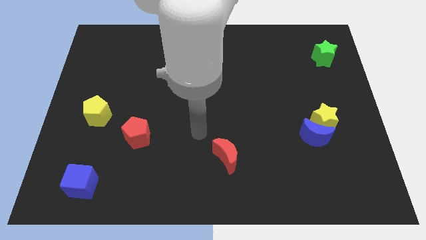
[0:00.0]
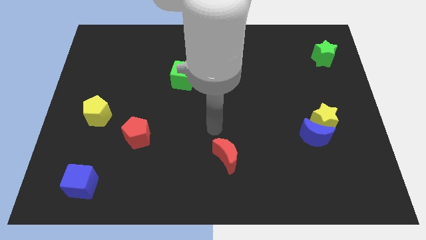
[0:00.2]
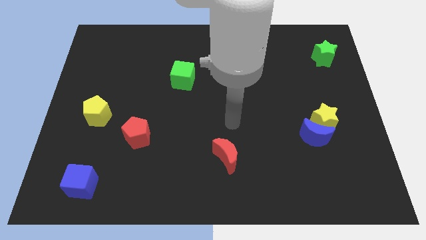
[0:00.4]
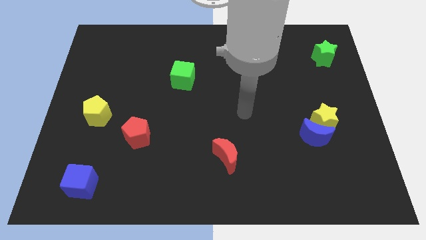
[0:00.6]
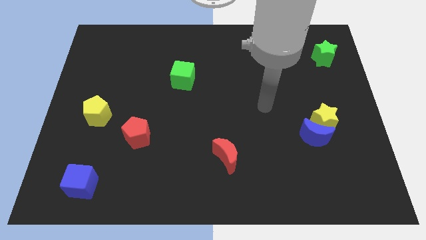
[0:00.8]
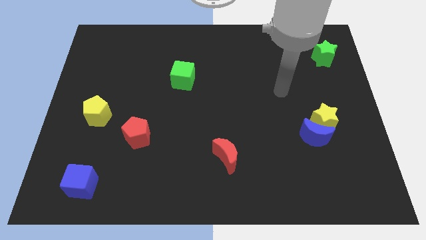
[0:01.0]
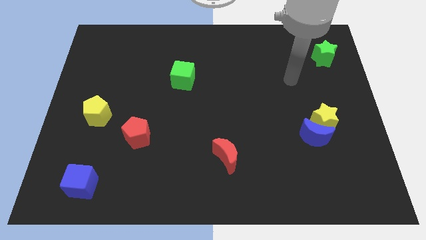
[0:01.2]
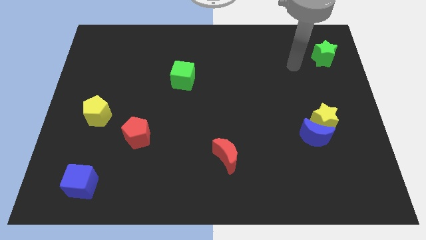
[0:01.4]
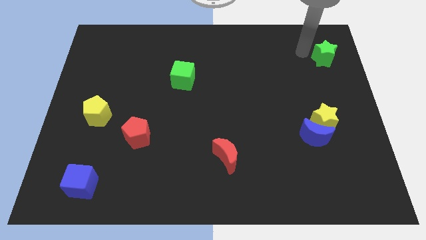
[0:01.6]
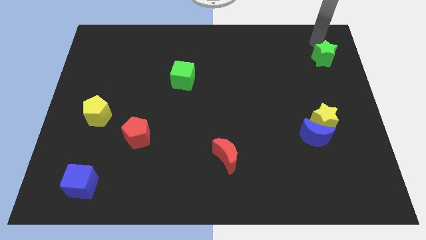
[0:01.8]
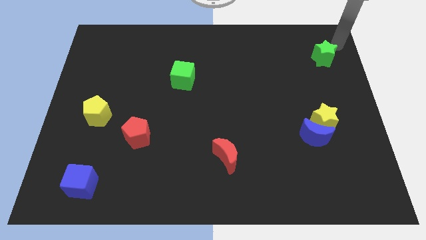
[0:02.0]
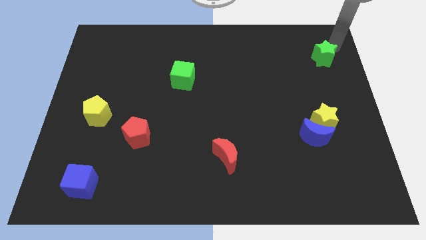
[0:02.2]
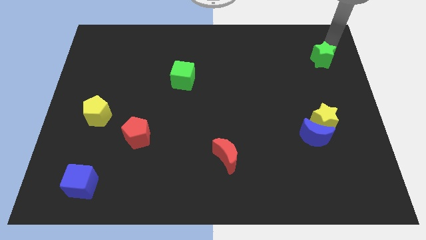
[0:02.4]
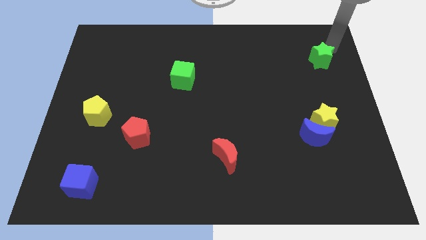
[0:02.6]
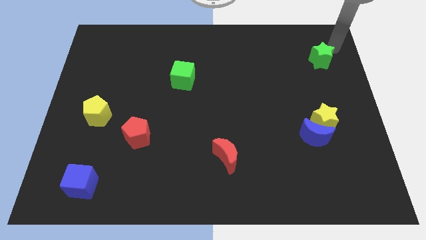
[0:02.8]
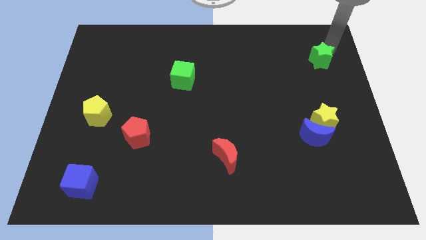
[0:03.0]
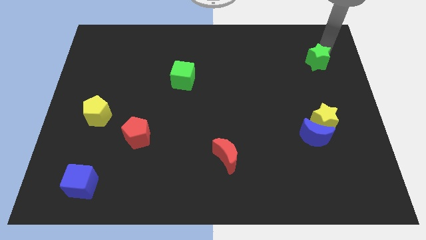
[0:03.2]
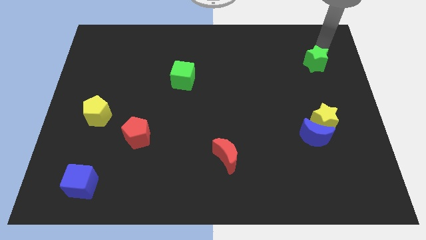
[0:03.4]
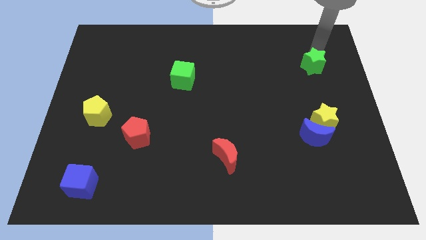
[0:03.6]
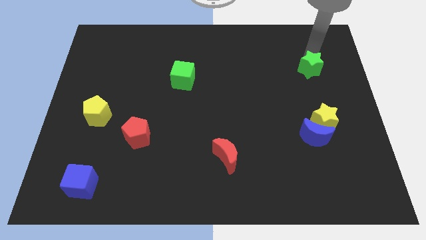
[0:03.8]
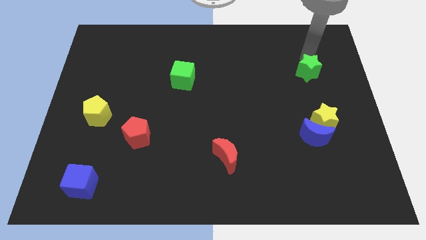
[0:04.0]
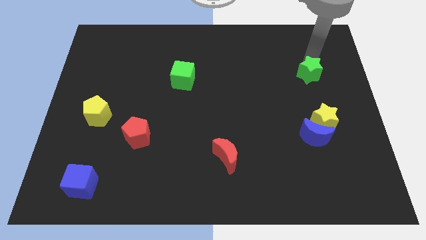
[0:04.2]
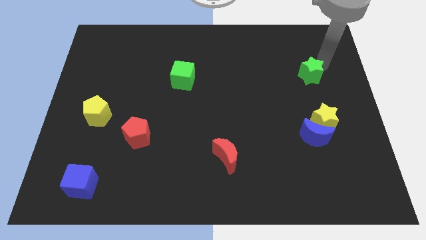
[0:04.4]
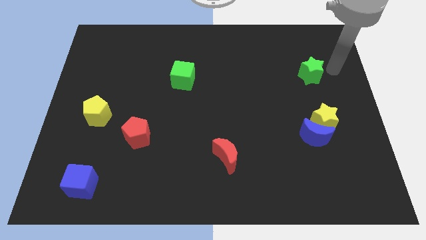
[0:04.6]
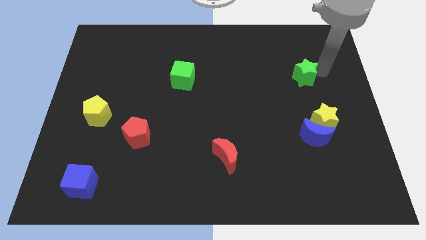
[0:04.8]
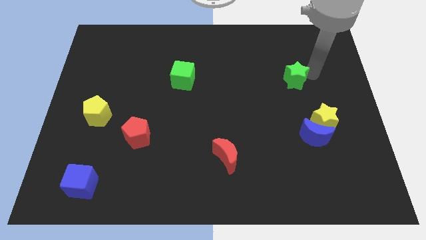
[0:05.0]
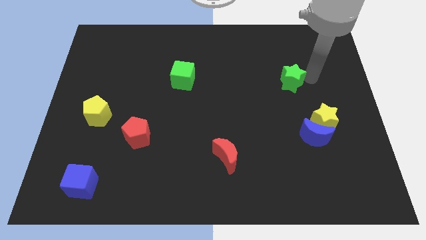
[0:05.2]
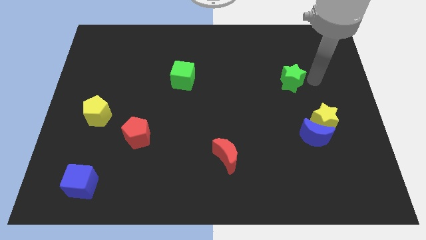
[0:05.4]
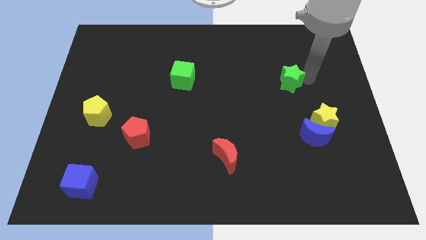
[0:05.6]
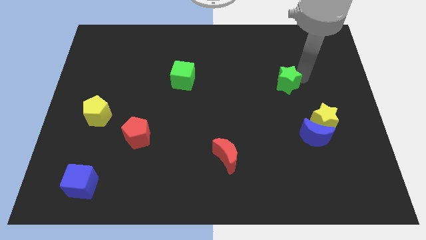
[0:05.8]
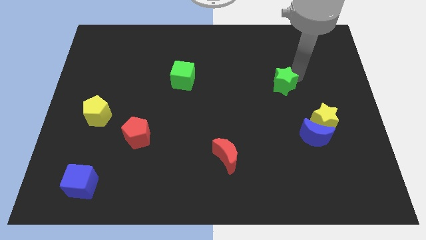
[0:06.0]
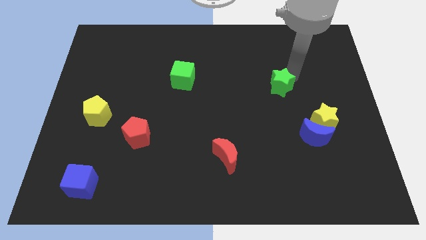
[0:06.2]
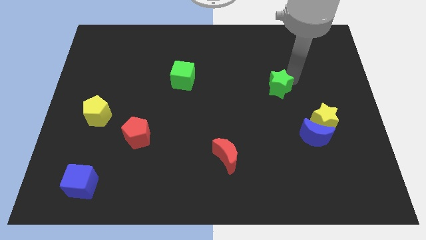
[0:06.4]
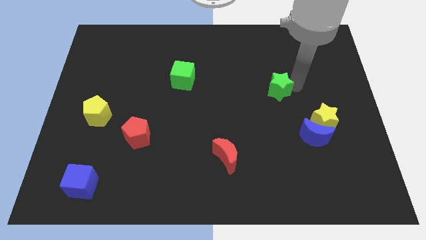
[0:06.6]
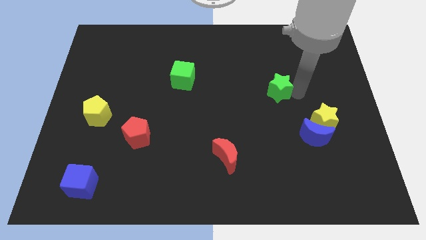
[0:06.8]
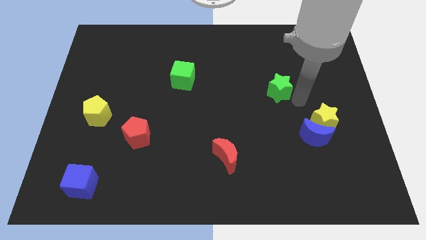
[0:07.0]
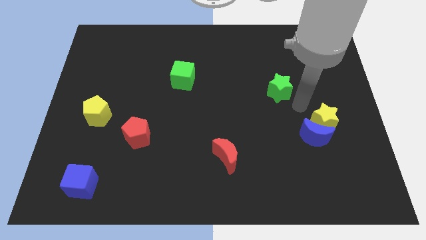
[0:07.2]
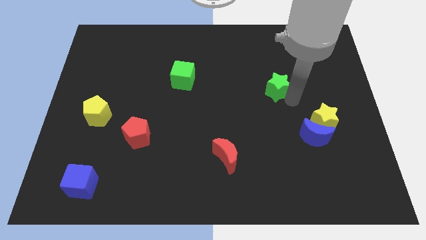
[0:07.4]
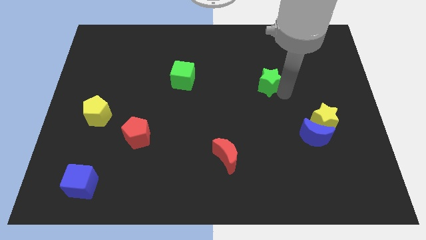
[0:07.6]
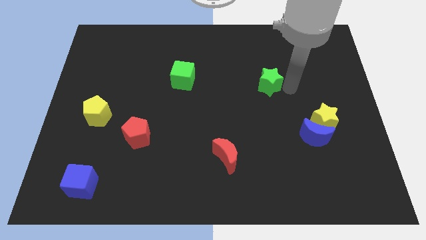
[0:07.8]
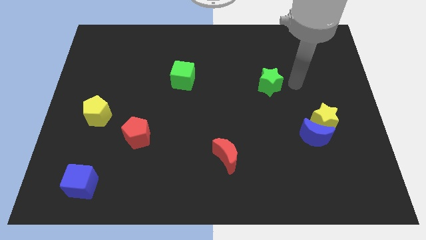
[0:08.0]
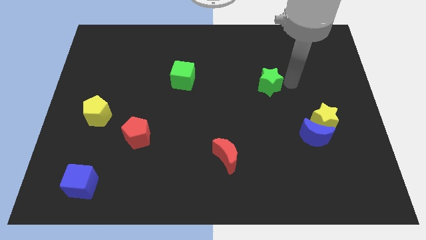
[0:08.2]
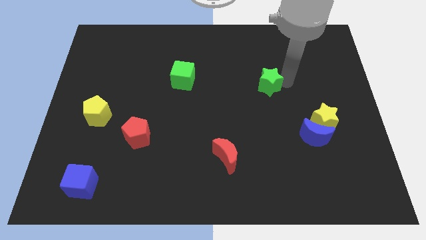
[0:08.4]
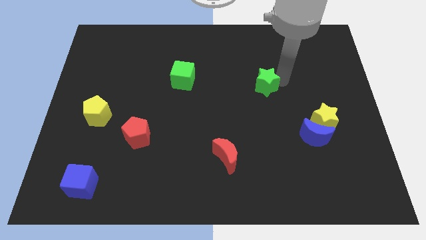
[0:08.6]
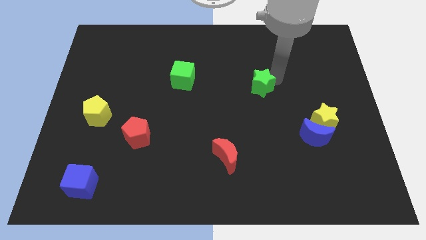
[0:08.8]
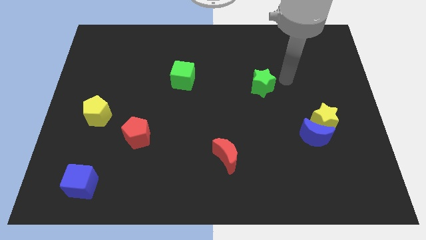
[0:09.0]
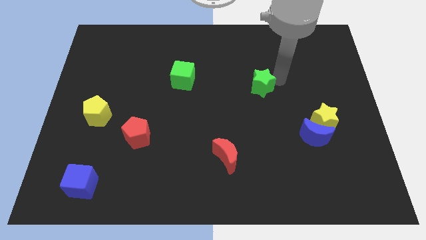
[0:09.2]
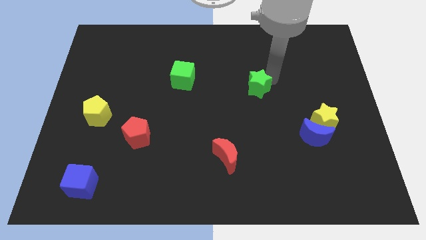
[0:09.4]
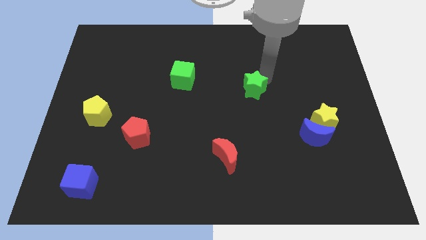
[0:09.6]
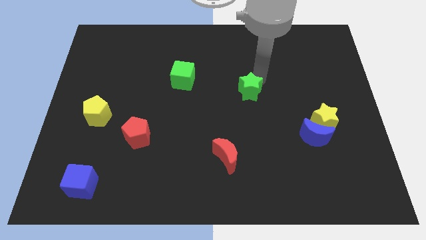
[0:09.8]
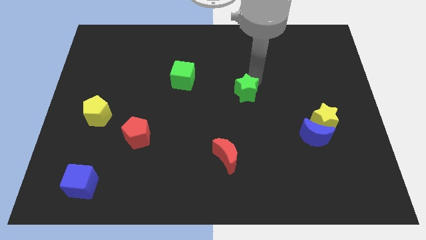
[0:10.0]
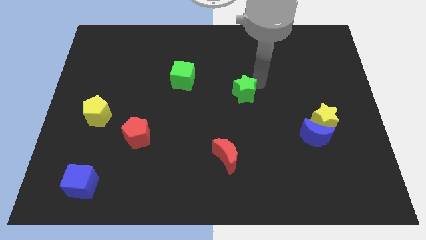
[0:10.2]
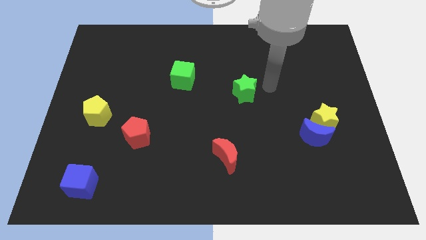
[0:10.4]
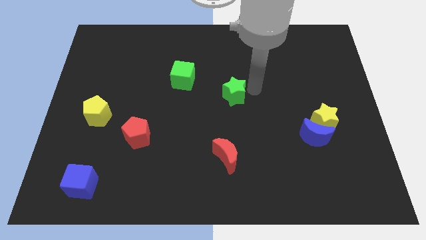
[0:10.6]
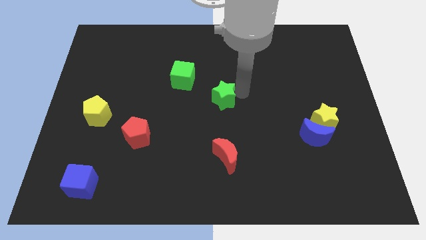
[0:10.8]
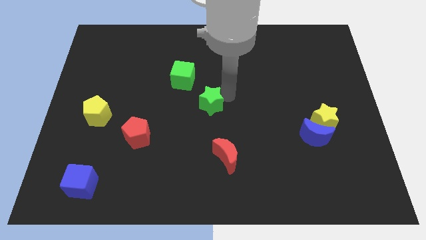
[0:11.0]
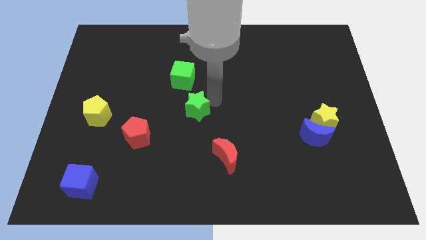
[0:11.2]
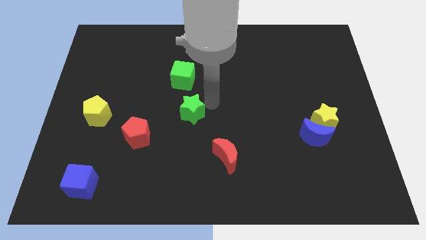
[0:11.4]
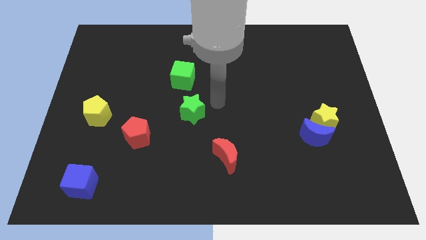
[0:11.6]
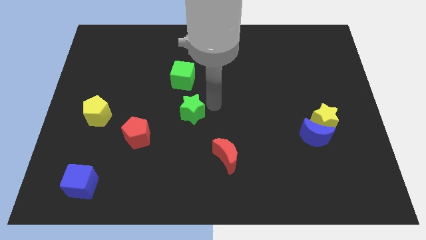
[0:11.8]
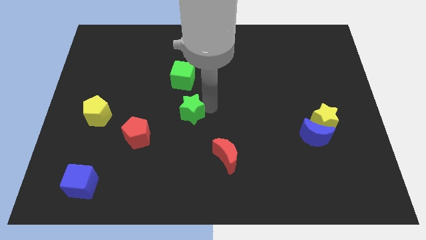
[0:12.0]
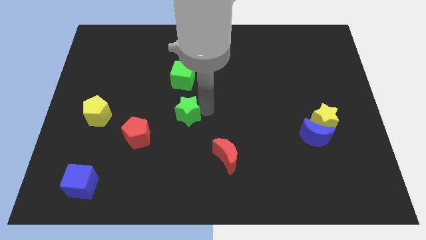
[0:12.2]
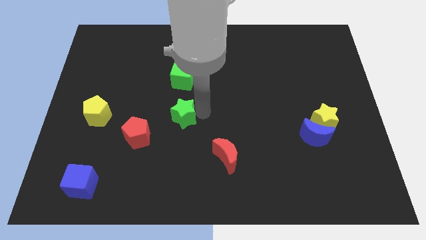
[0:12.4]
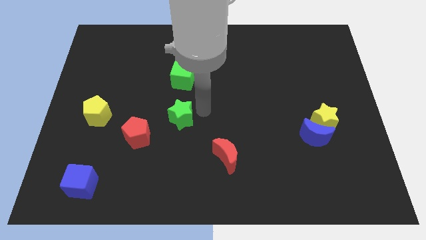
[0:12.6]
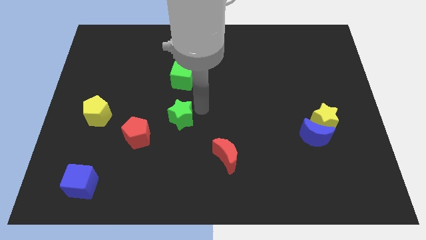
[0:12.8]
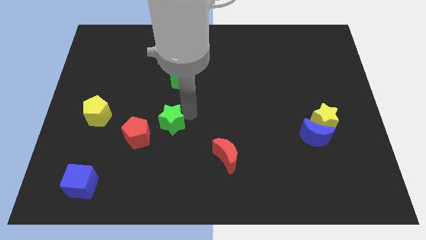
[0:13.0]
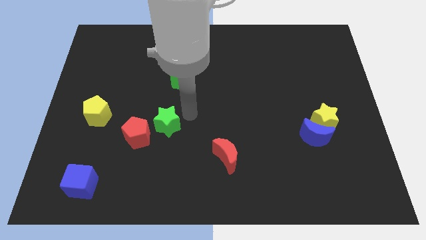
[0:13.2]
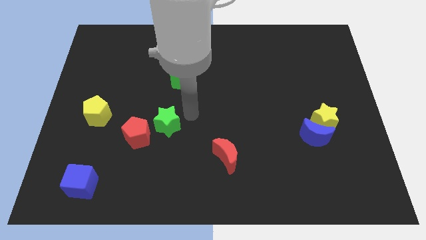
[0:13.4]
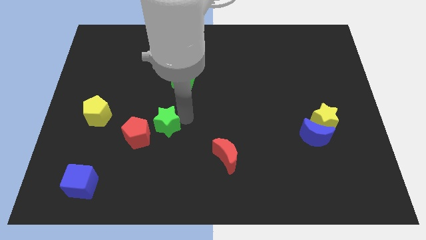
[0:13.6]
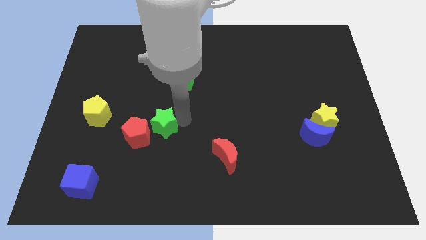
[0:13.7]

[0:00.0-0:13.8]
slide the green star to the red pentagon
